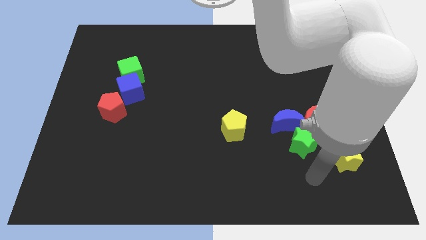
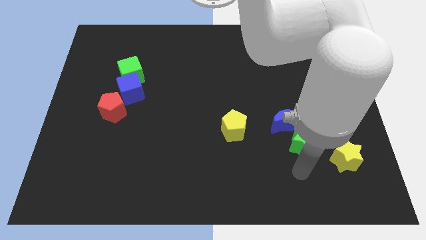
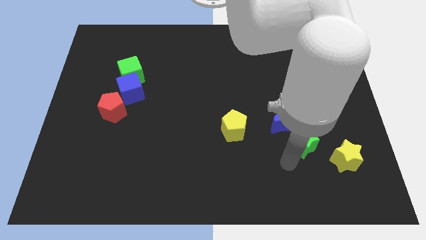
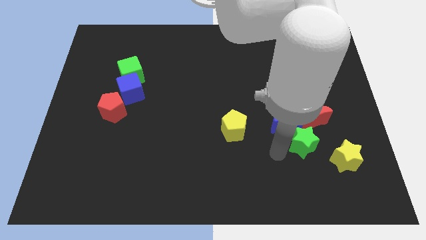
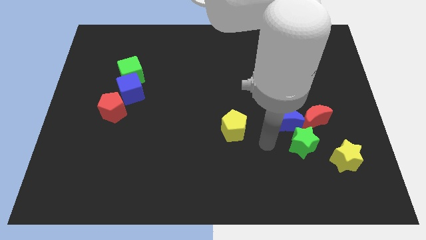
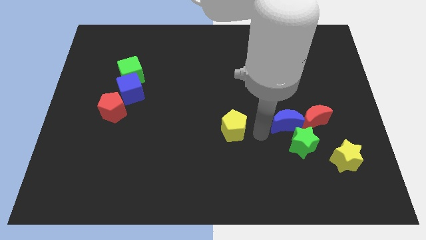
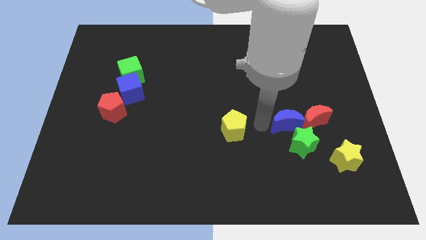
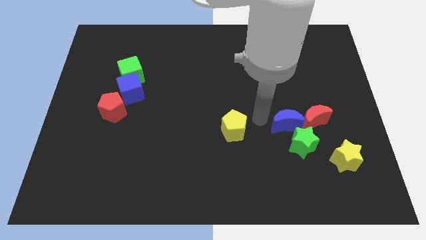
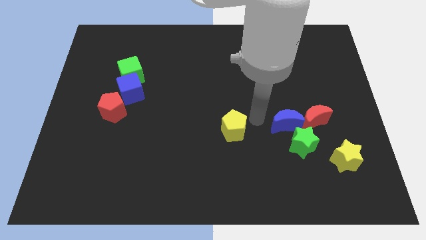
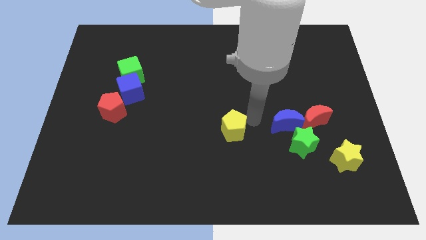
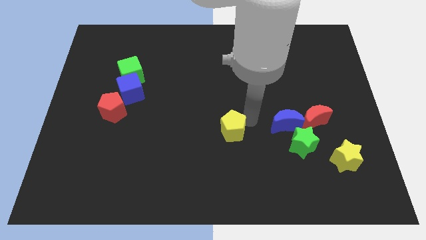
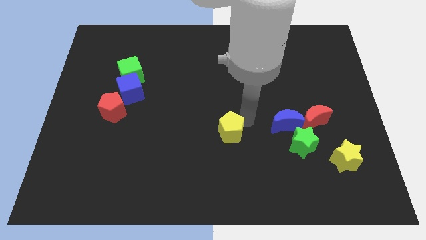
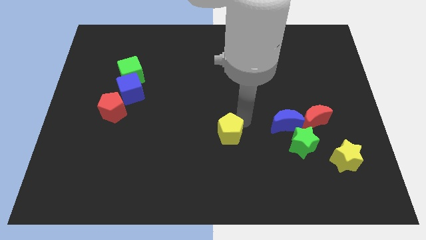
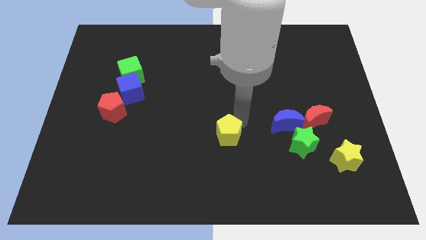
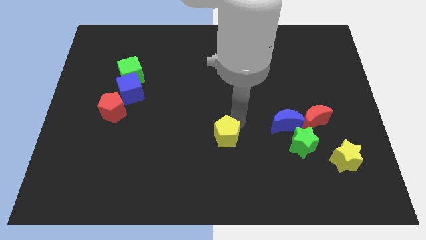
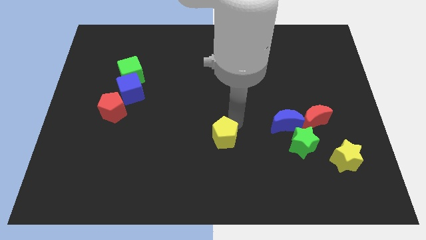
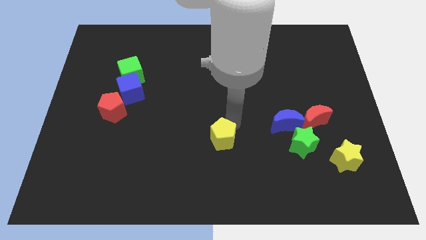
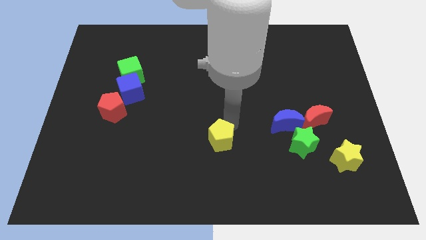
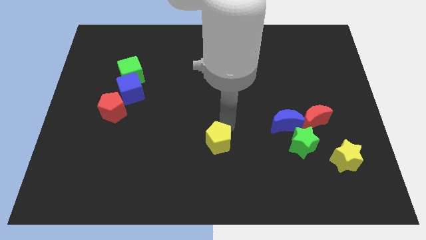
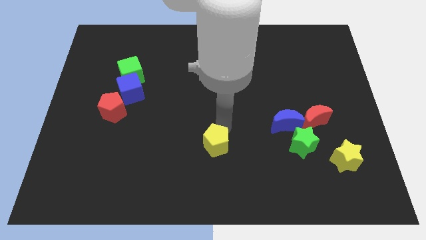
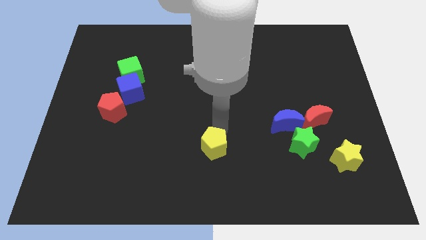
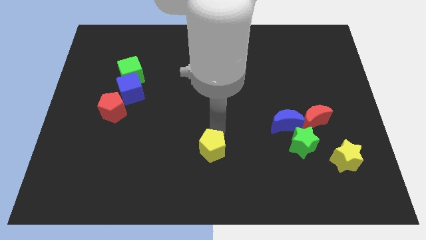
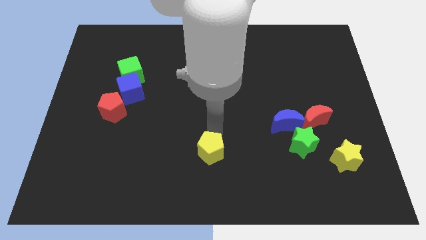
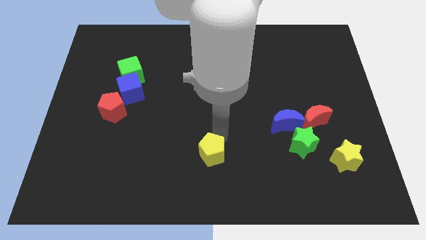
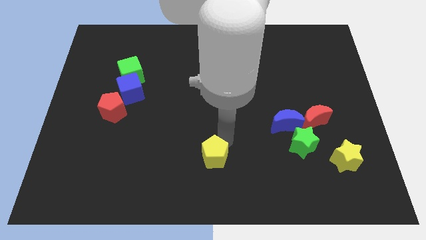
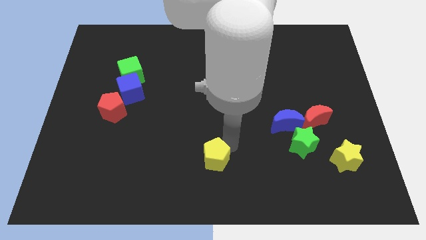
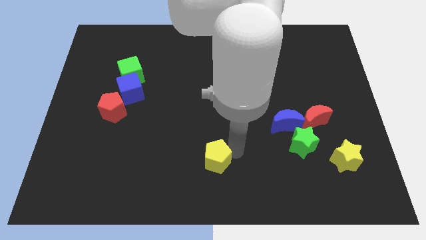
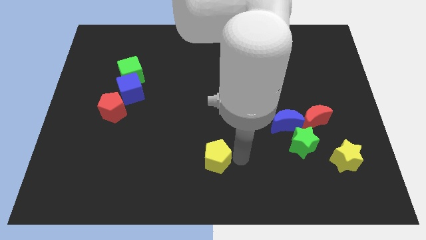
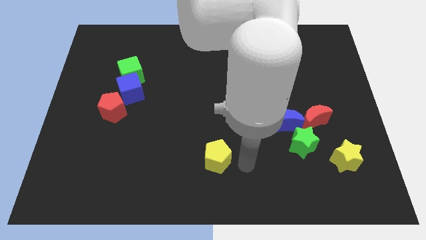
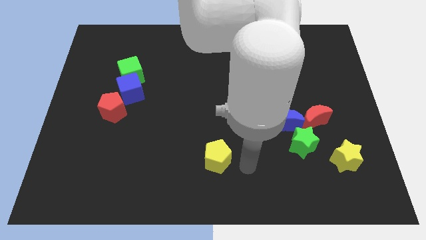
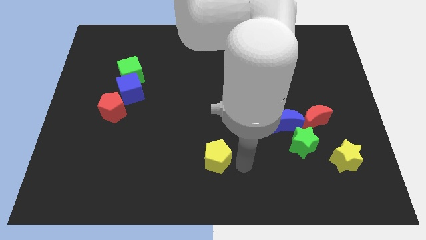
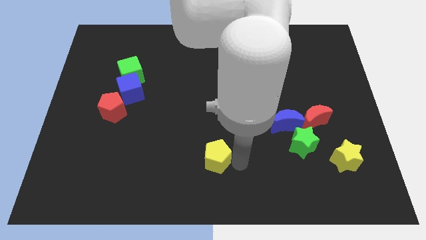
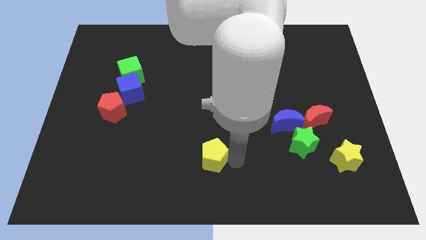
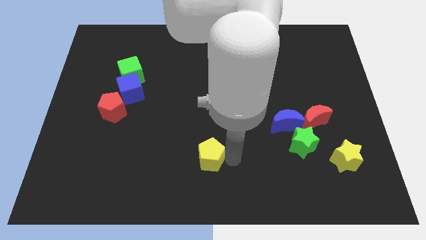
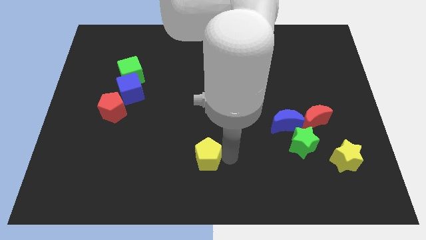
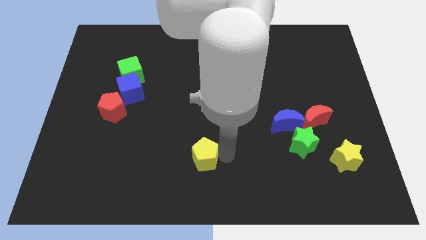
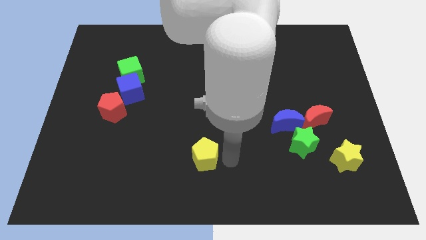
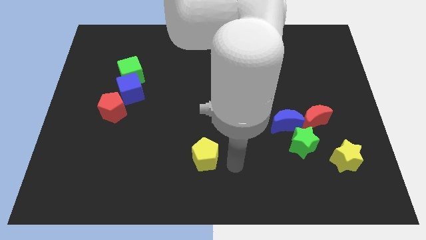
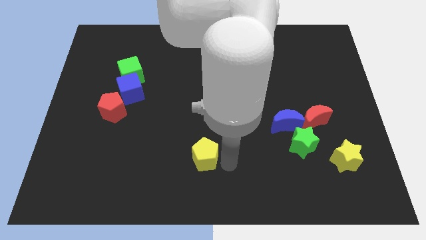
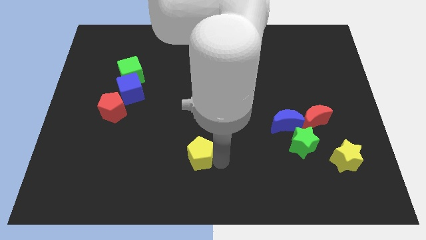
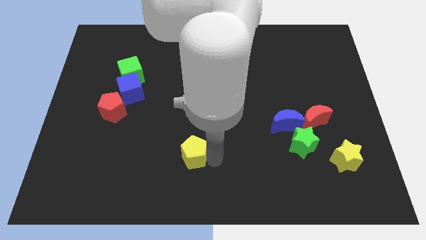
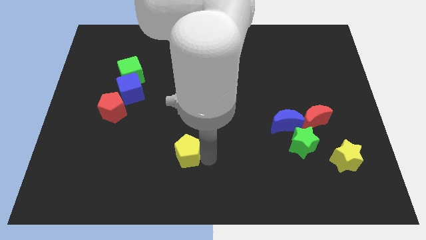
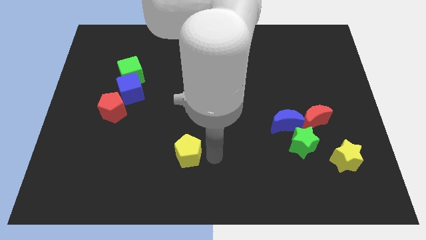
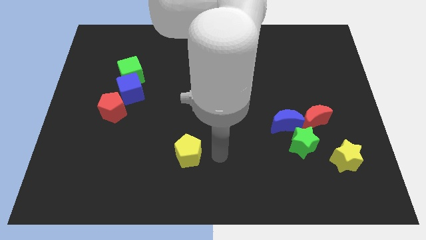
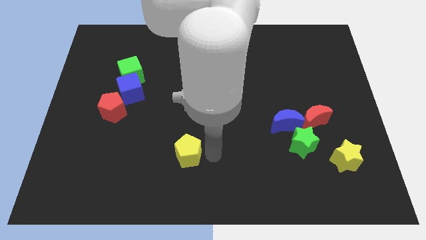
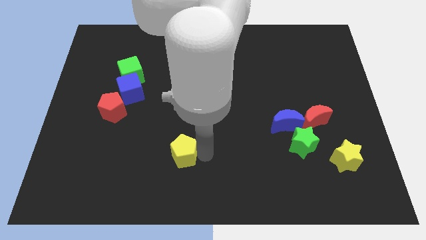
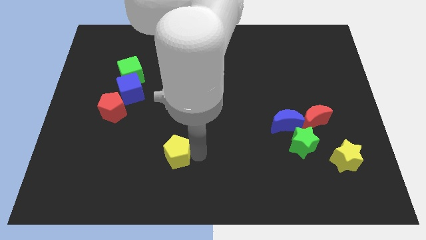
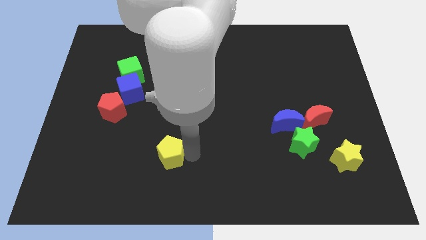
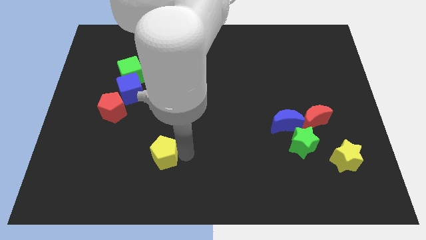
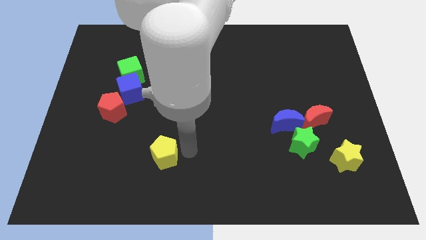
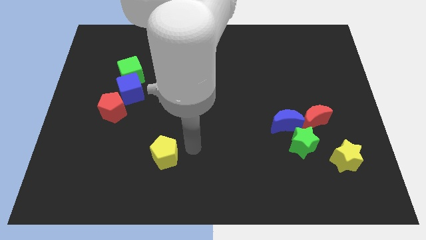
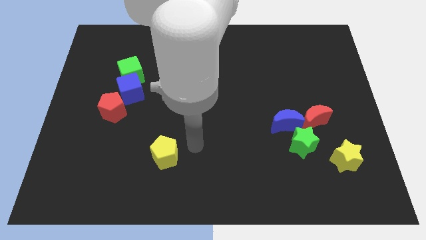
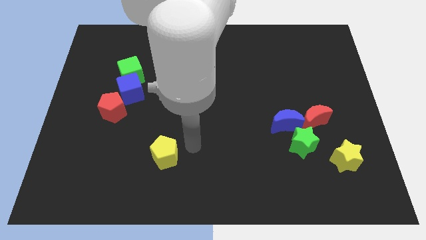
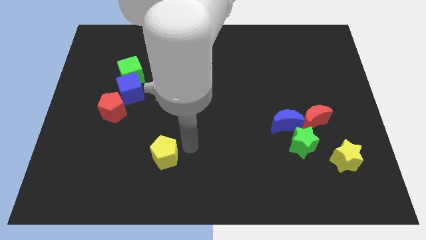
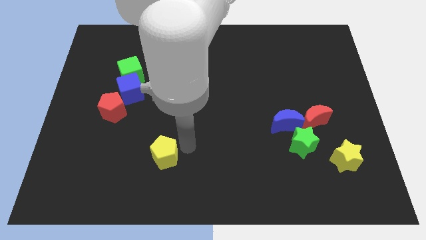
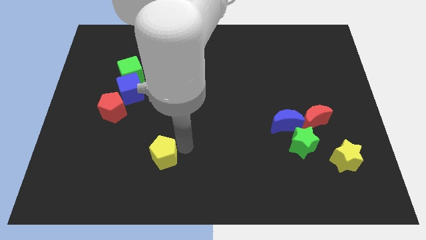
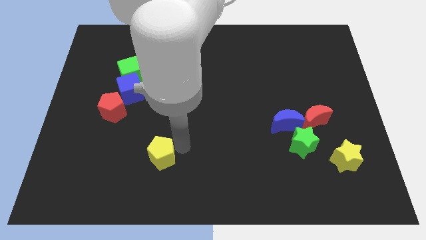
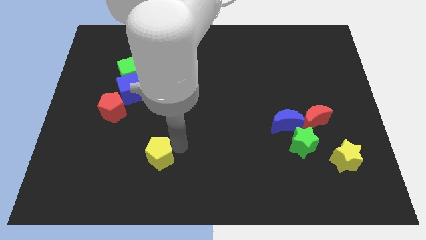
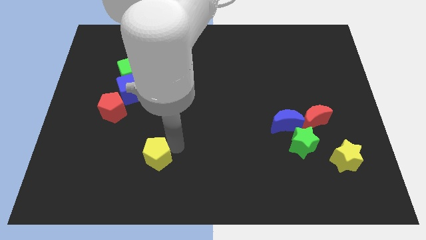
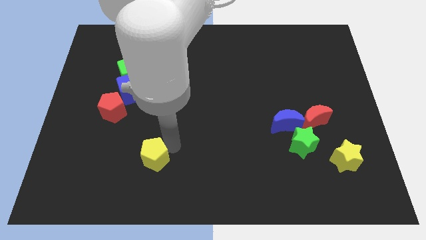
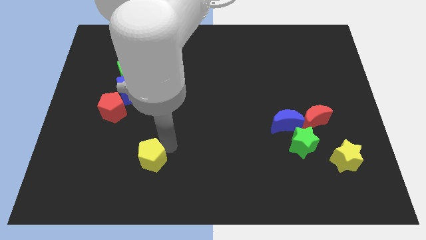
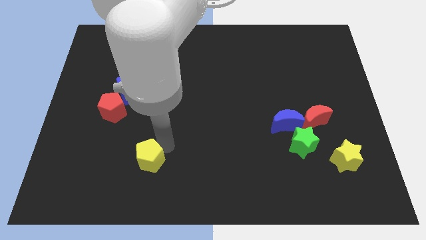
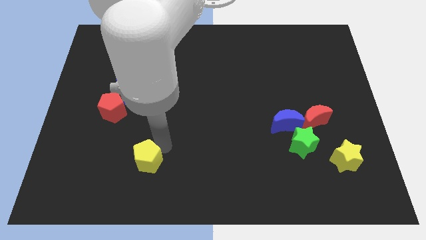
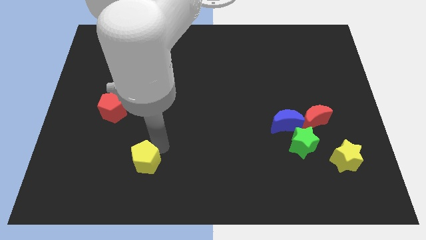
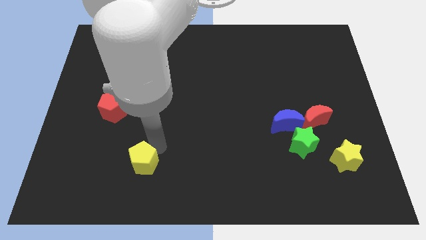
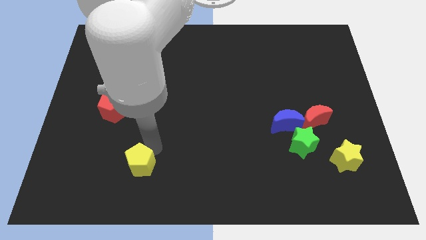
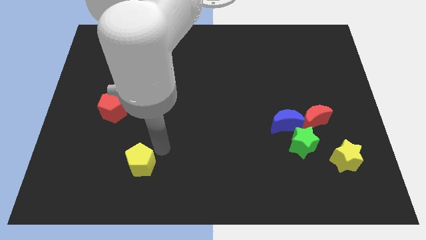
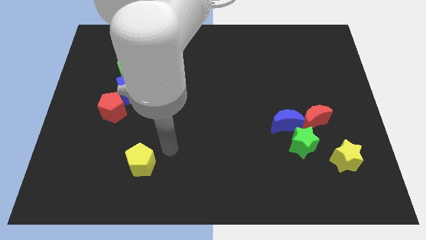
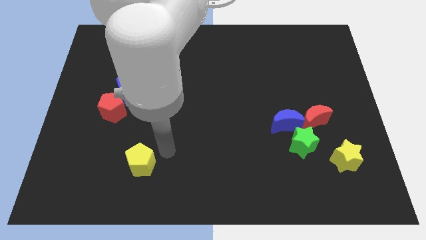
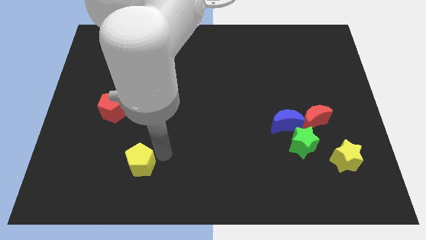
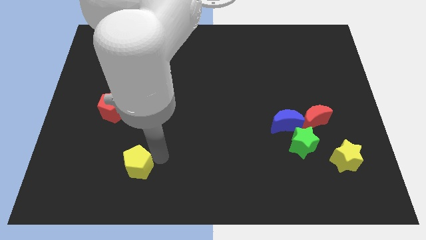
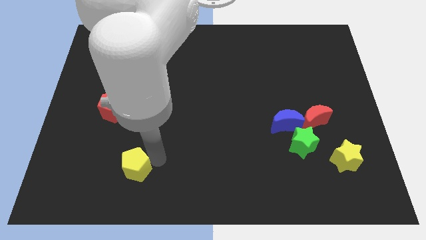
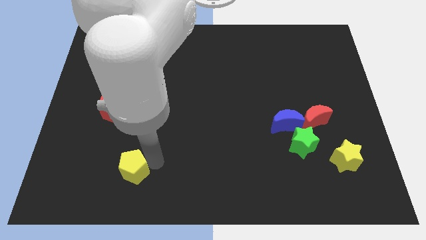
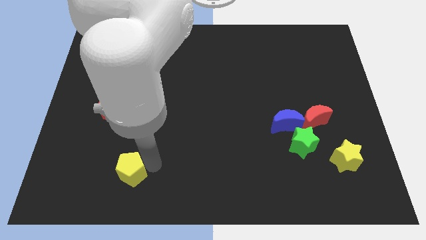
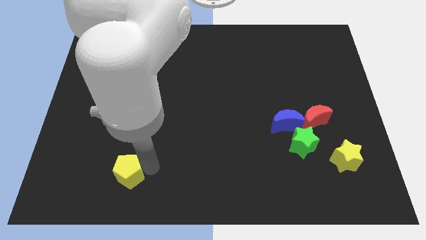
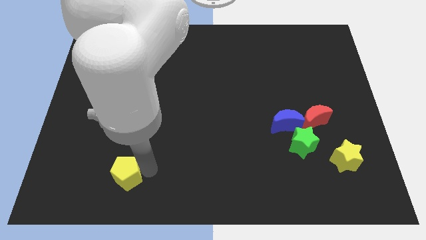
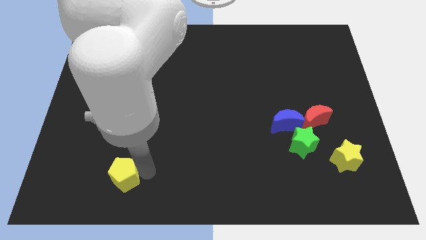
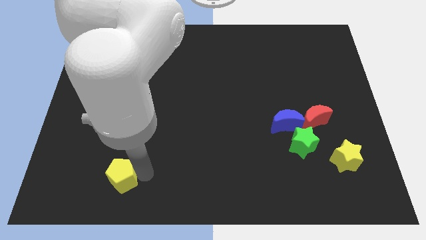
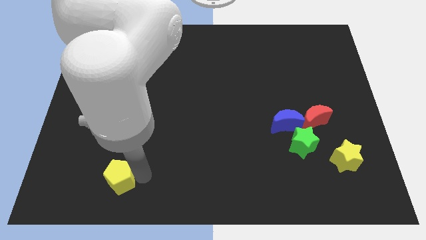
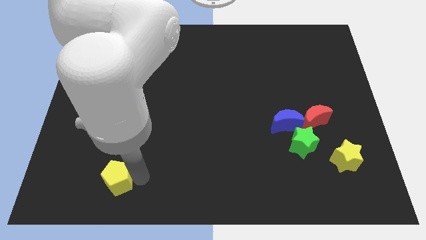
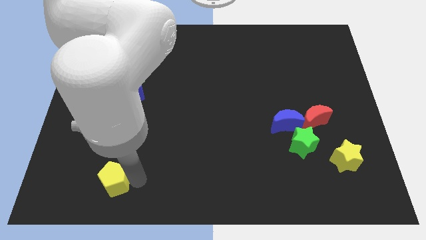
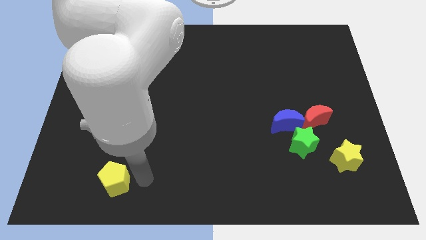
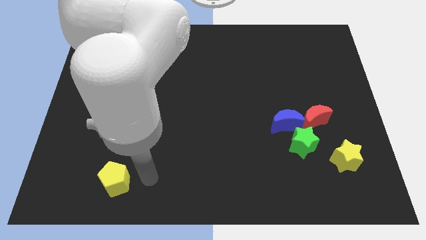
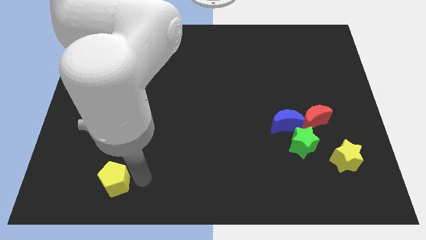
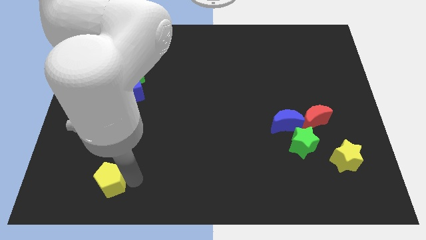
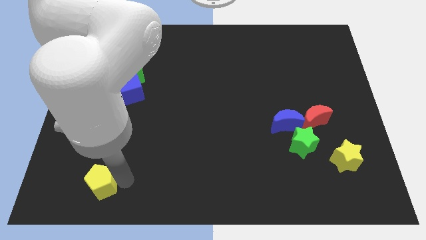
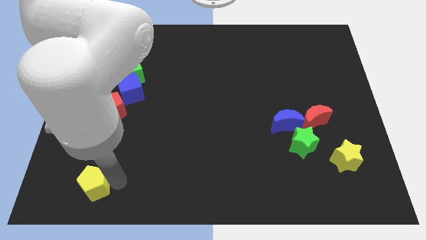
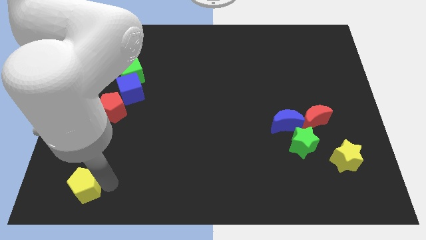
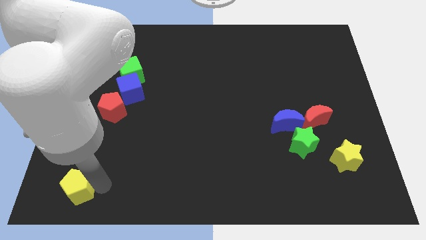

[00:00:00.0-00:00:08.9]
slide the yellow pentagon to the bottom left corner
